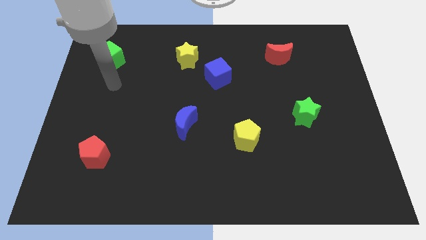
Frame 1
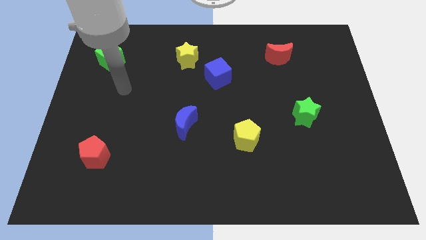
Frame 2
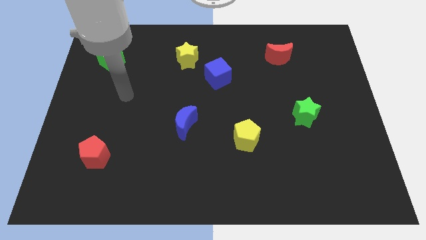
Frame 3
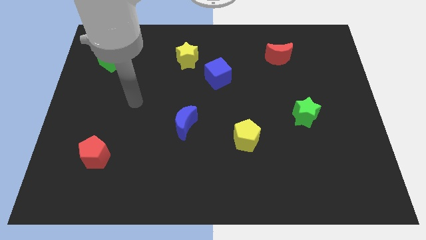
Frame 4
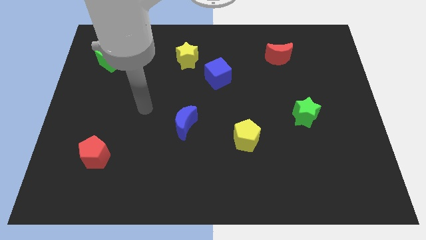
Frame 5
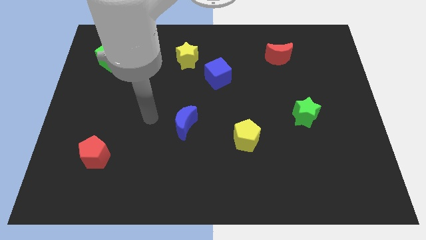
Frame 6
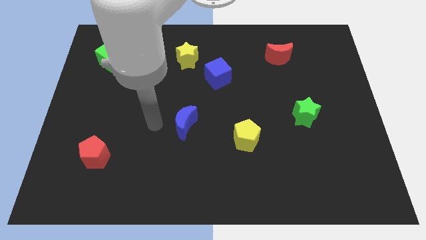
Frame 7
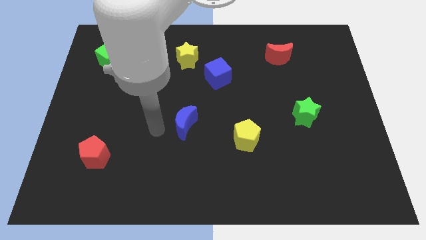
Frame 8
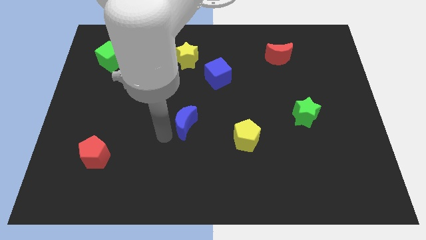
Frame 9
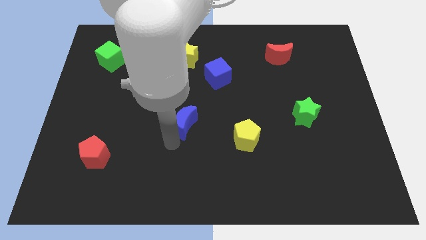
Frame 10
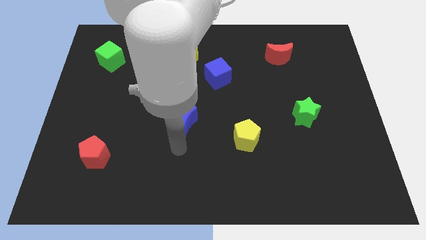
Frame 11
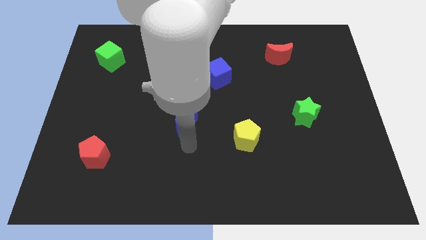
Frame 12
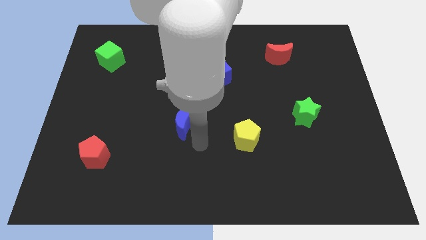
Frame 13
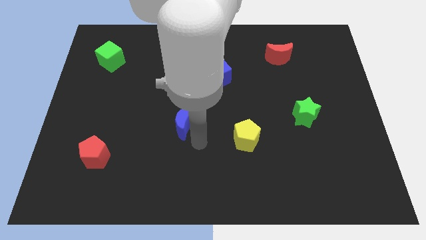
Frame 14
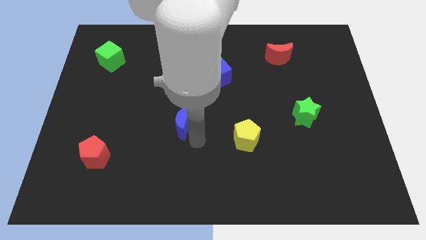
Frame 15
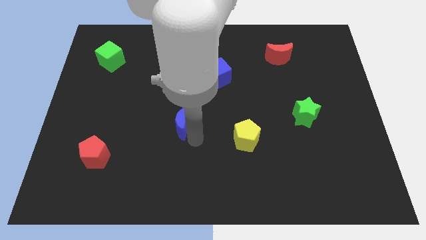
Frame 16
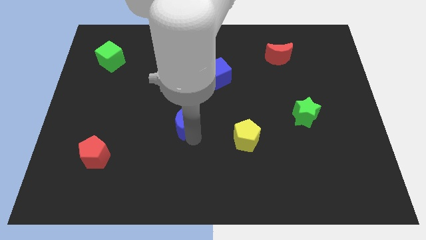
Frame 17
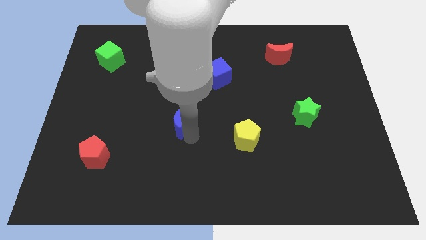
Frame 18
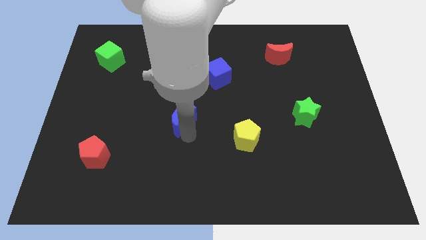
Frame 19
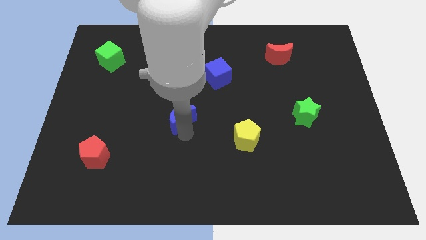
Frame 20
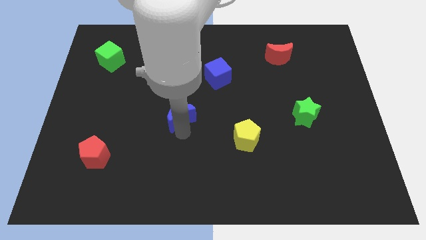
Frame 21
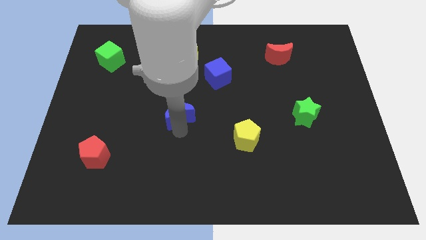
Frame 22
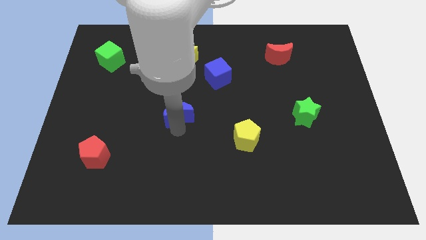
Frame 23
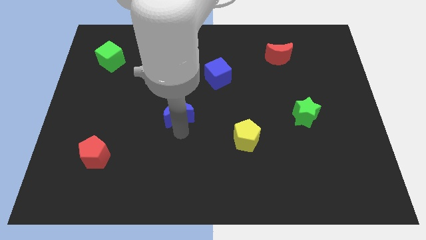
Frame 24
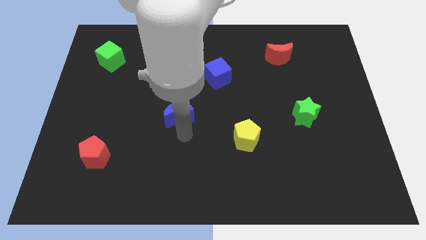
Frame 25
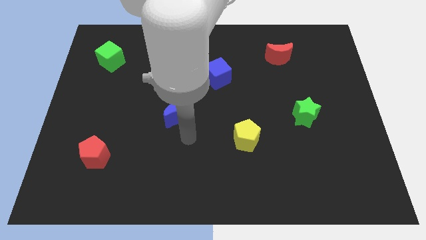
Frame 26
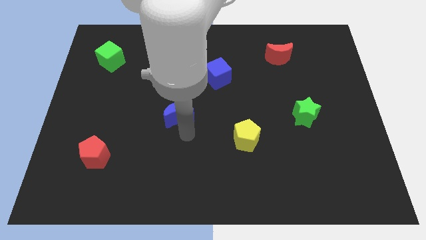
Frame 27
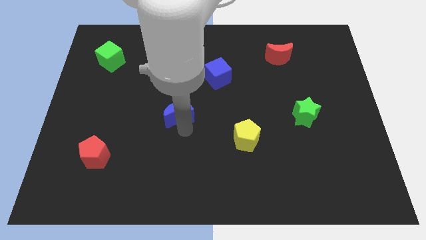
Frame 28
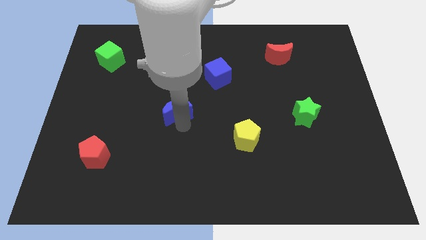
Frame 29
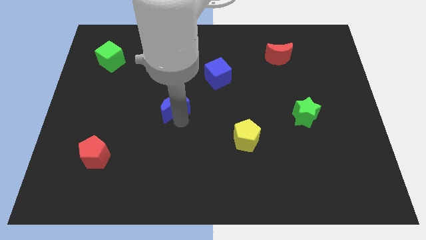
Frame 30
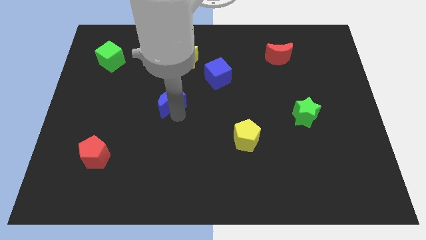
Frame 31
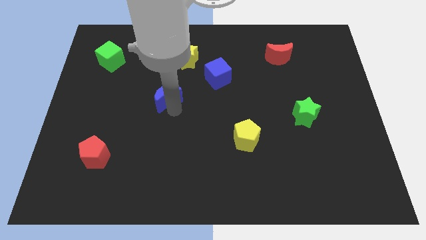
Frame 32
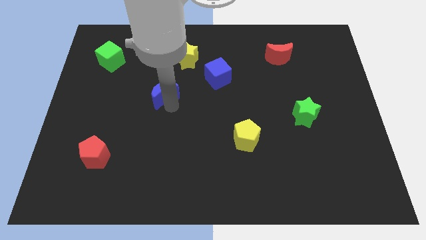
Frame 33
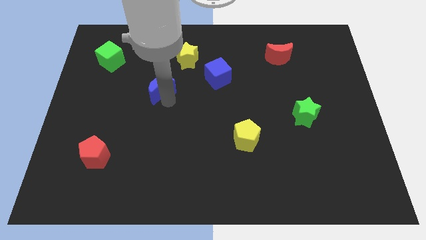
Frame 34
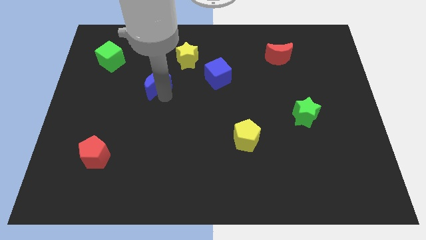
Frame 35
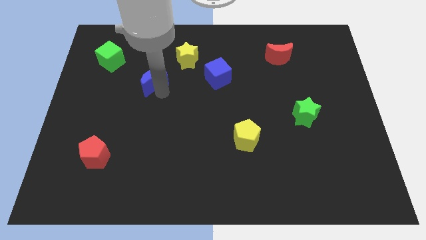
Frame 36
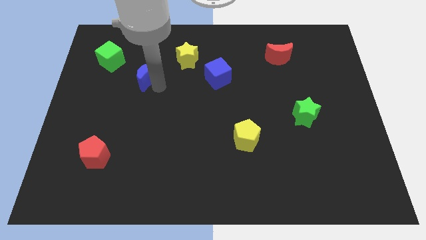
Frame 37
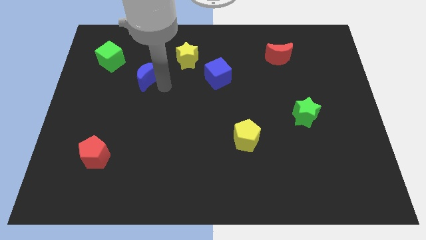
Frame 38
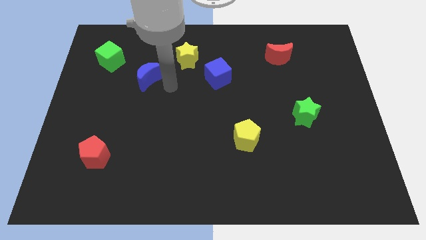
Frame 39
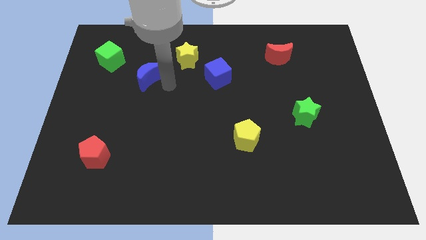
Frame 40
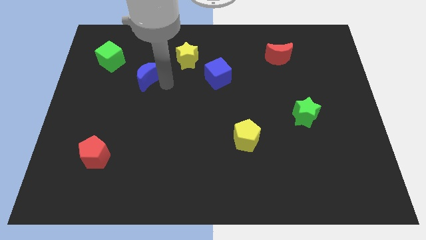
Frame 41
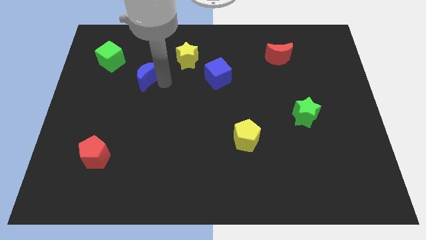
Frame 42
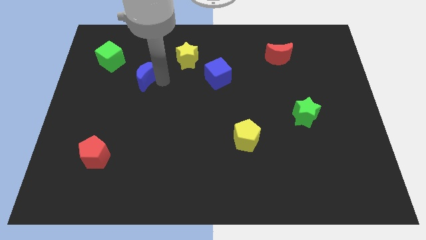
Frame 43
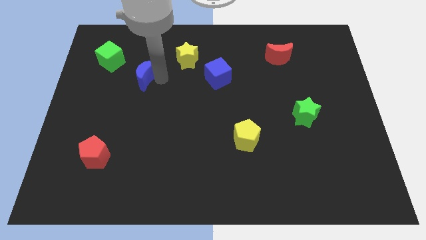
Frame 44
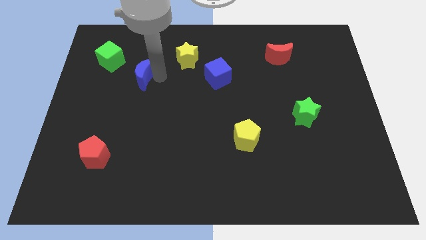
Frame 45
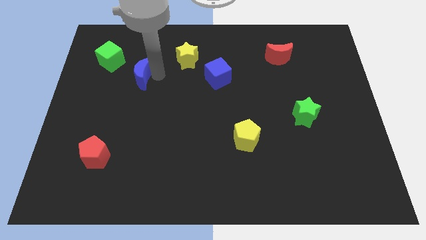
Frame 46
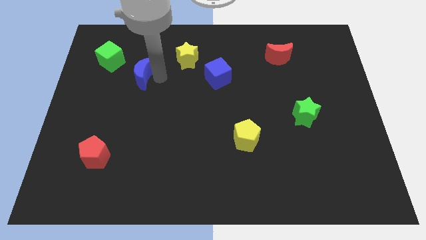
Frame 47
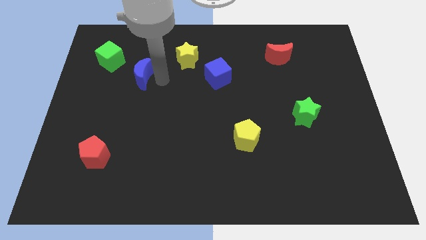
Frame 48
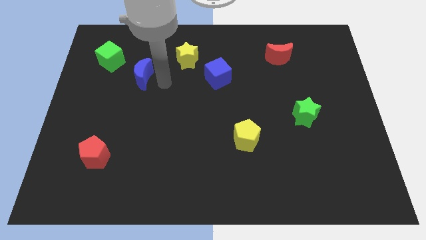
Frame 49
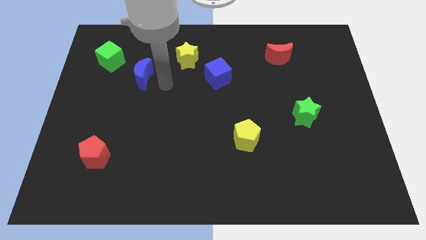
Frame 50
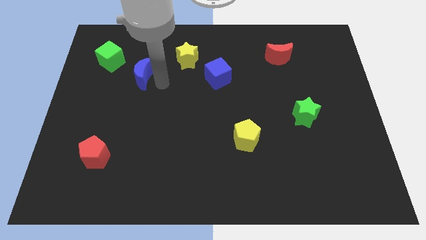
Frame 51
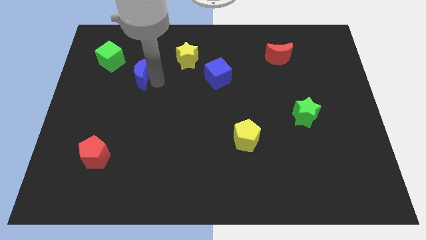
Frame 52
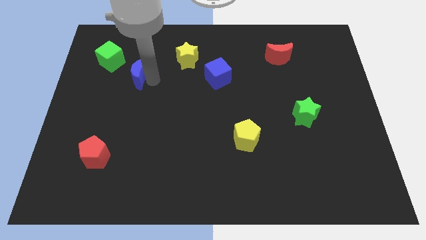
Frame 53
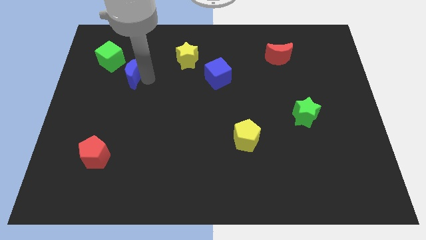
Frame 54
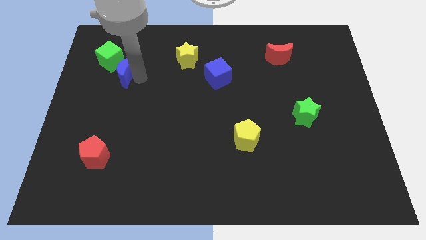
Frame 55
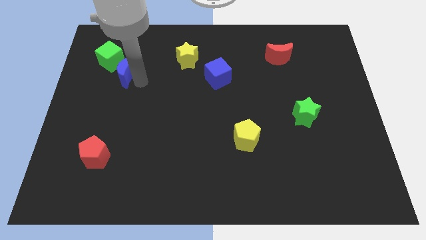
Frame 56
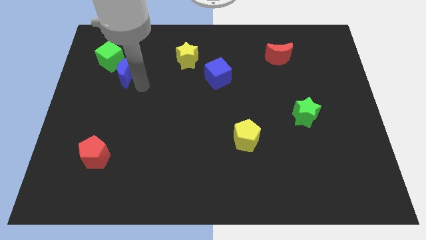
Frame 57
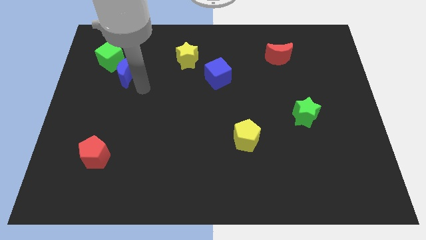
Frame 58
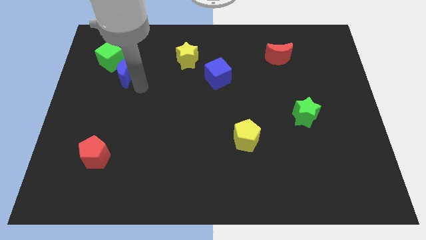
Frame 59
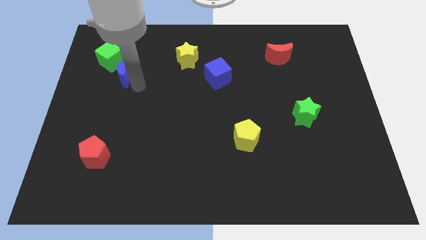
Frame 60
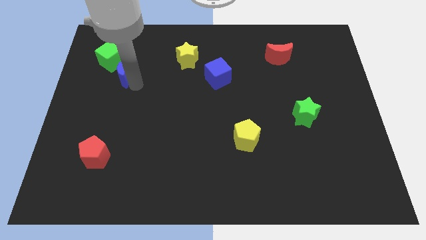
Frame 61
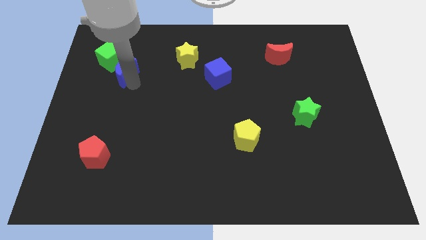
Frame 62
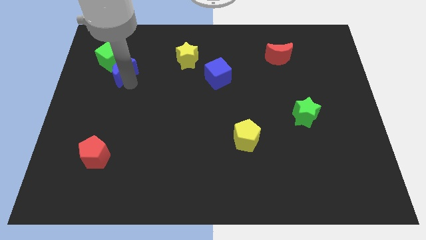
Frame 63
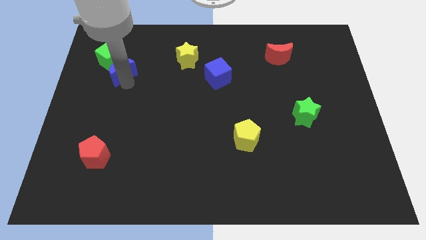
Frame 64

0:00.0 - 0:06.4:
push the blue moon close to the green cube
